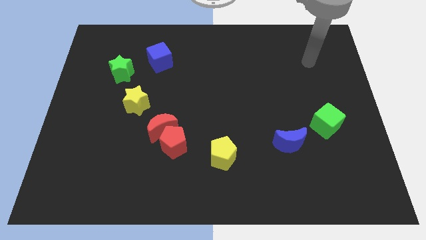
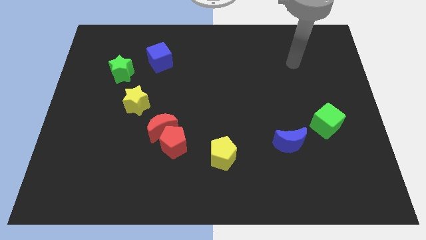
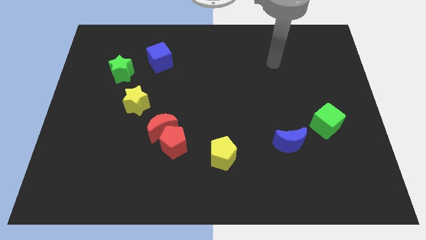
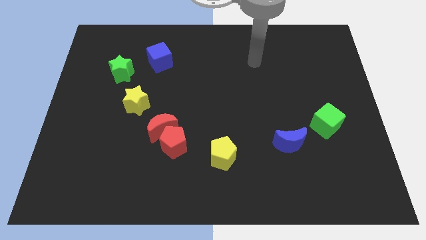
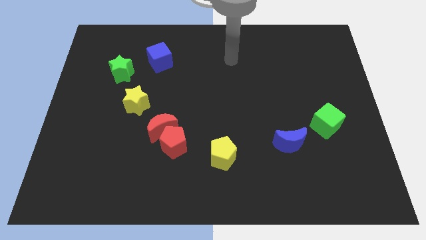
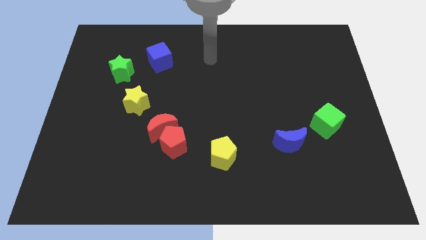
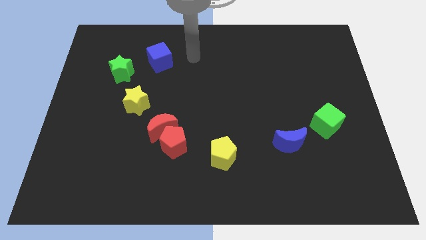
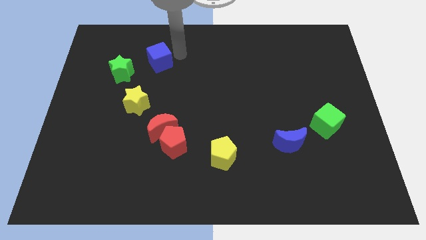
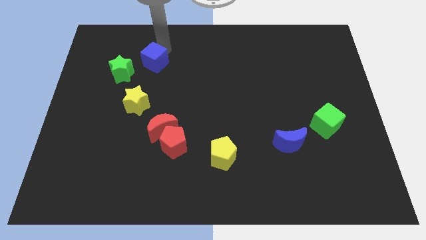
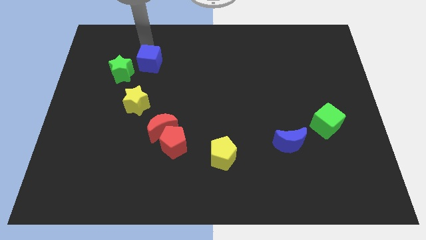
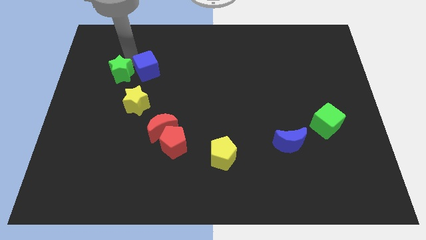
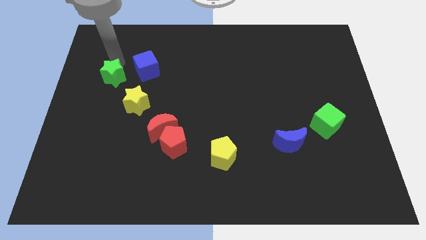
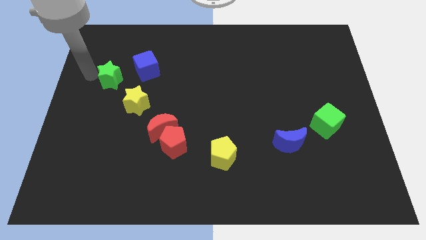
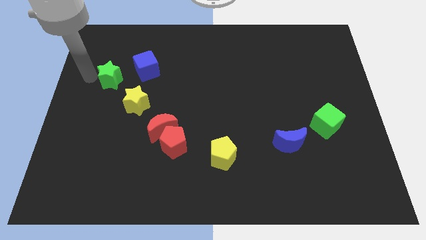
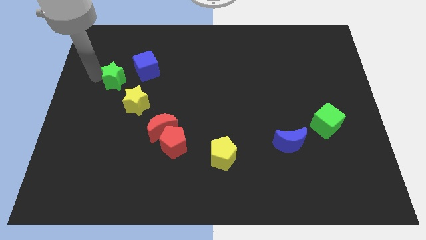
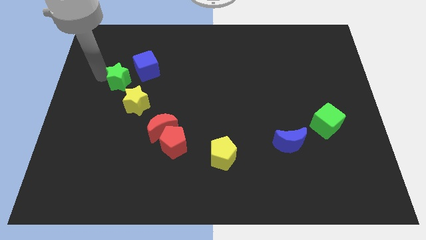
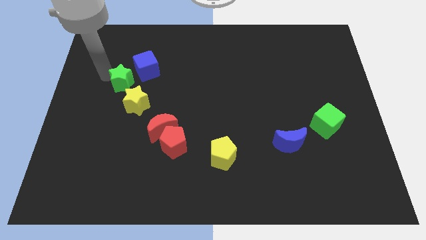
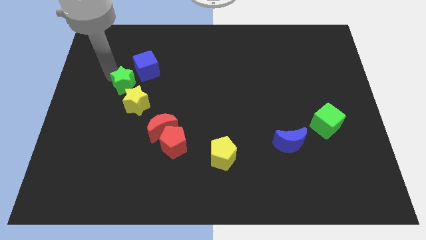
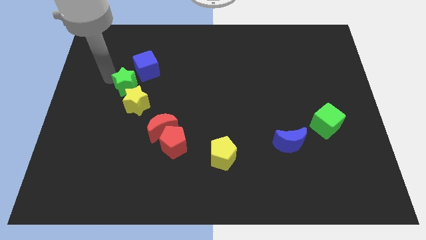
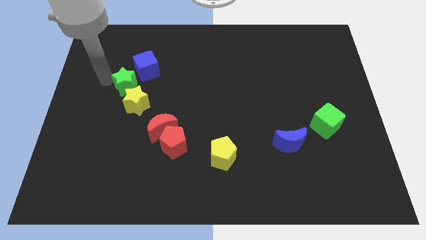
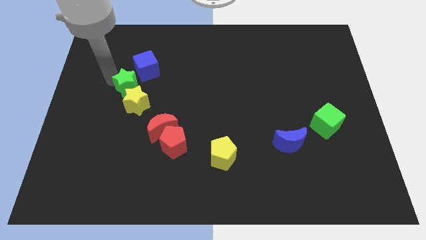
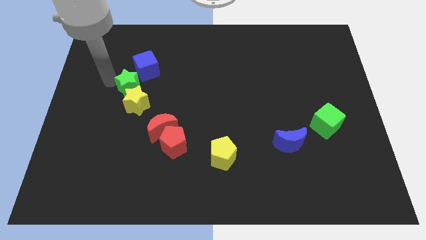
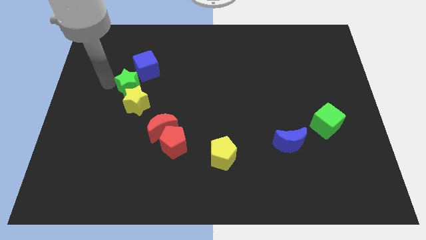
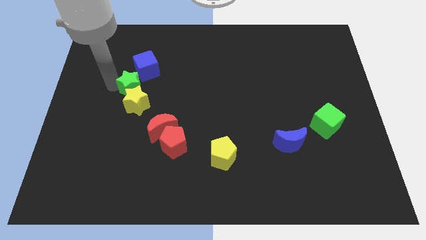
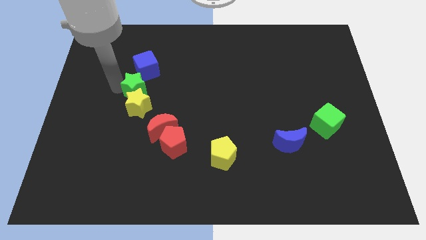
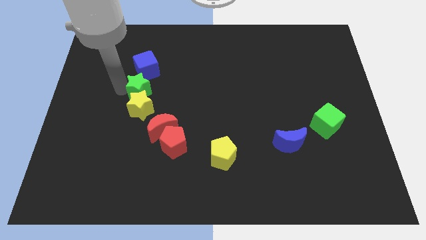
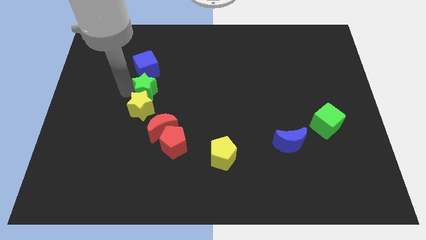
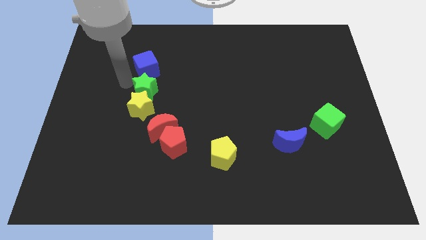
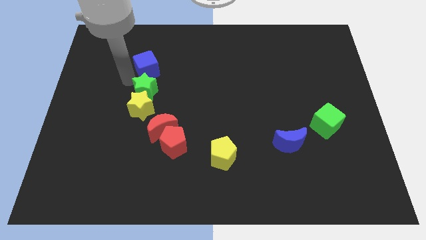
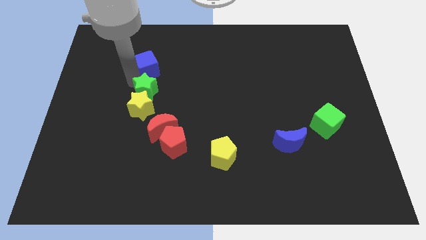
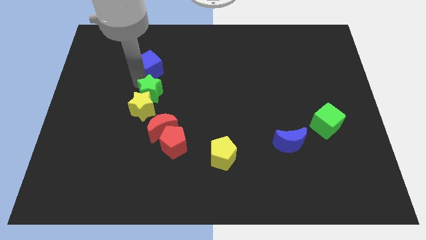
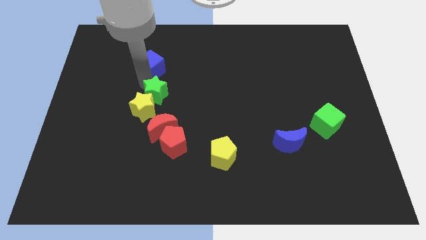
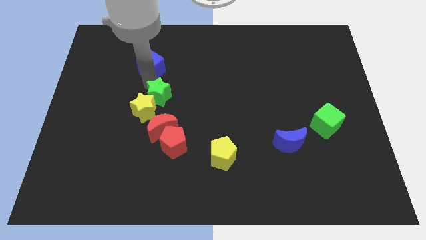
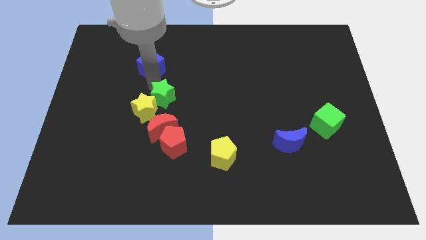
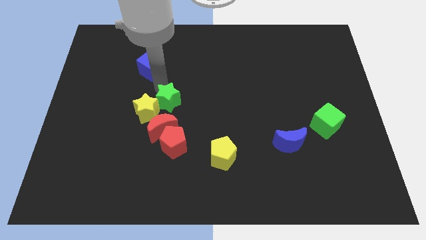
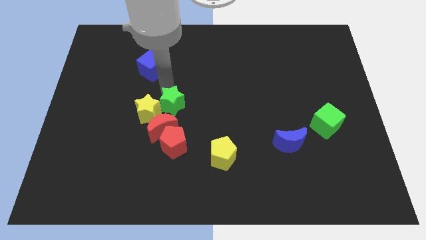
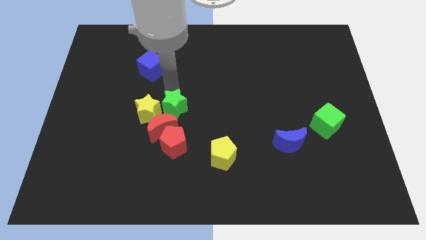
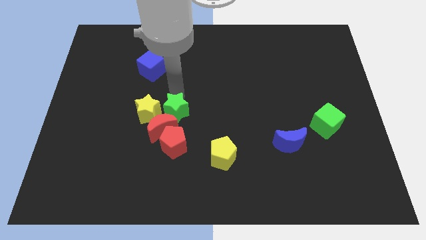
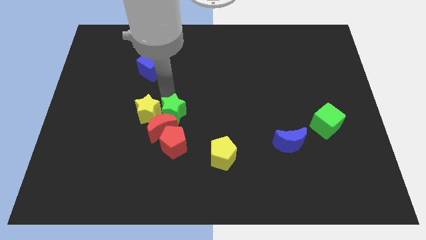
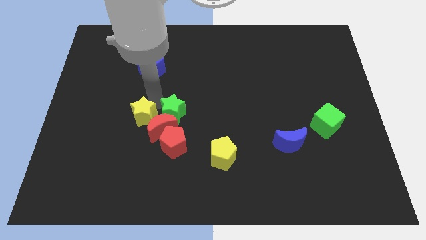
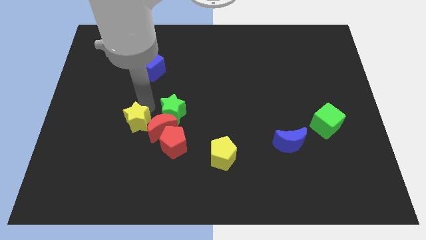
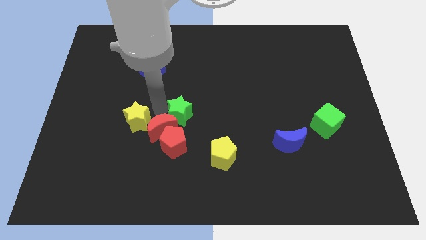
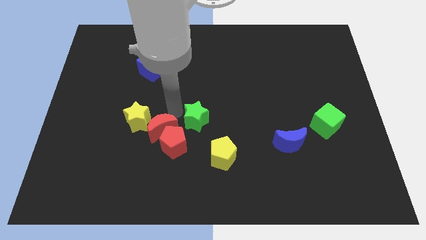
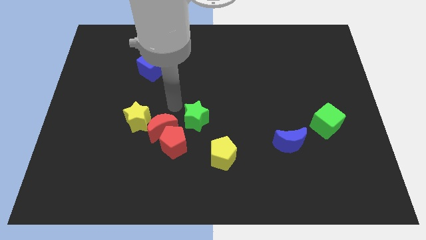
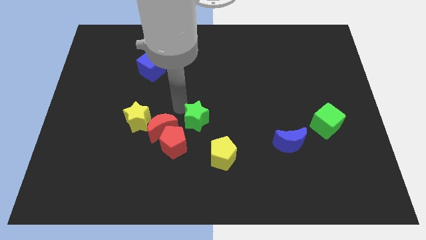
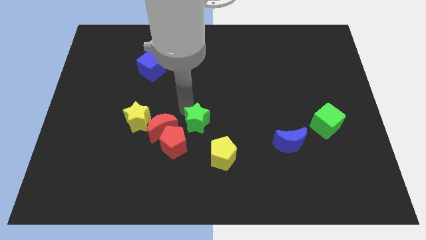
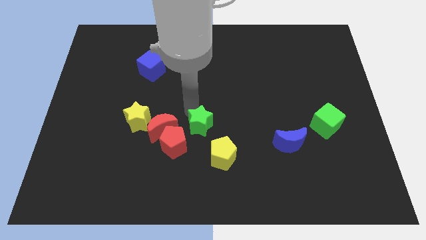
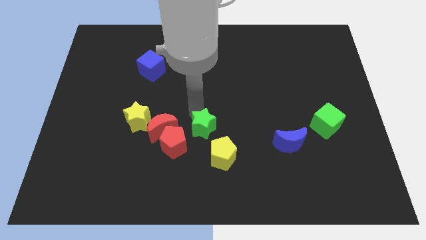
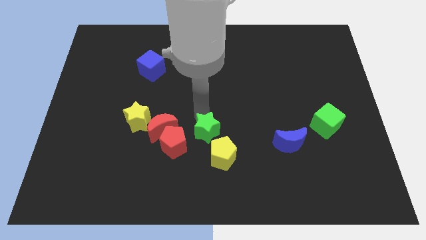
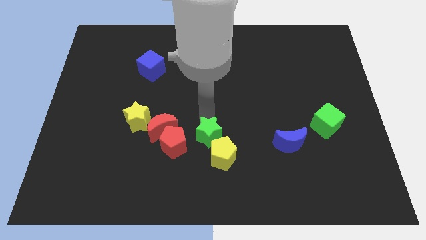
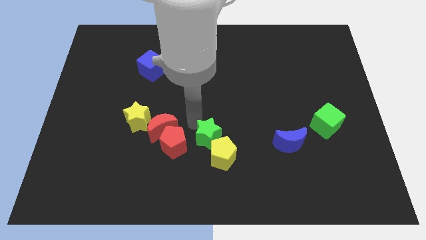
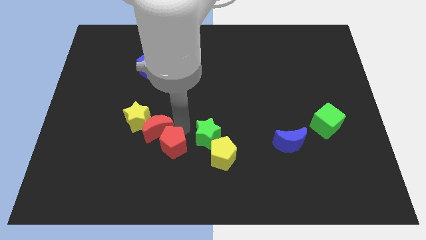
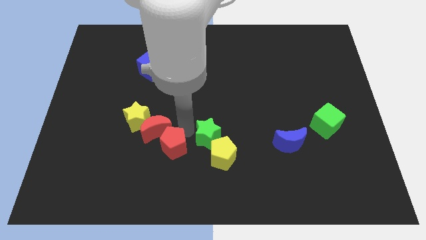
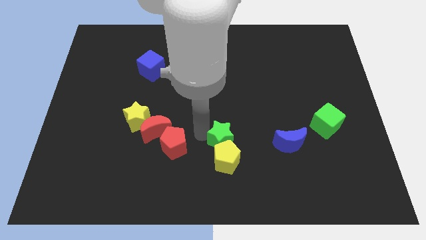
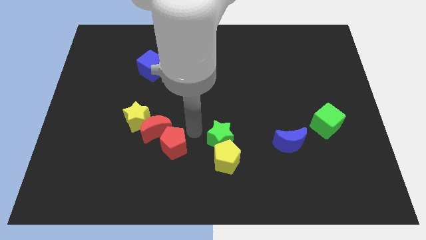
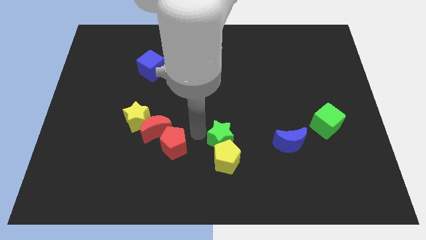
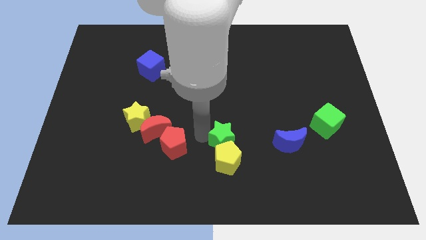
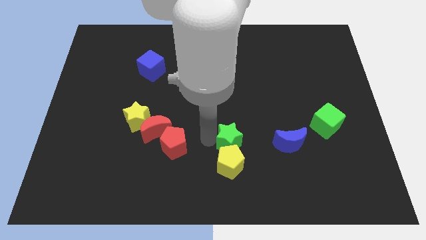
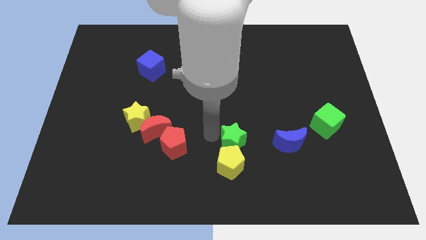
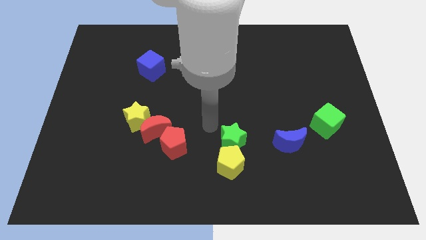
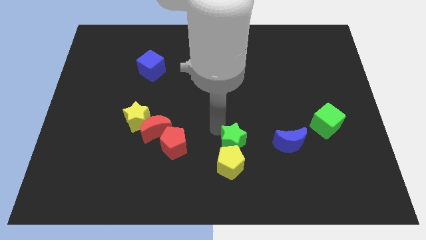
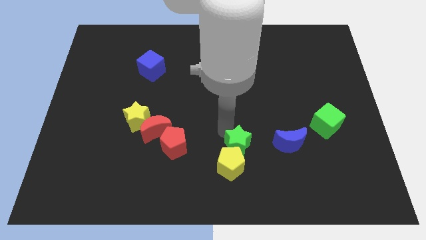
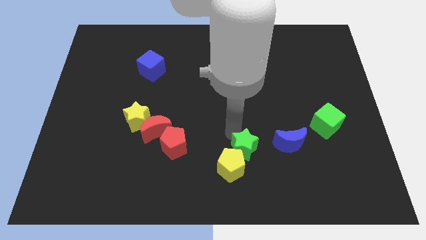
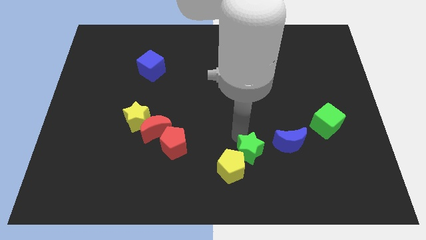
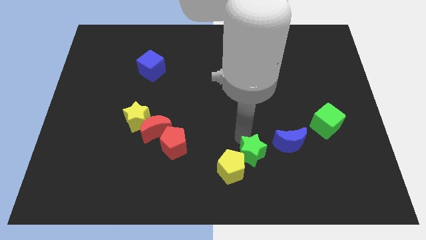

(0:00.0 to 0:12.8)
move the green star to the bottom left of the blue moon
